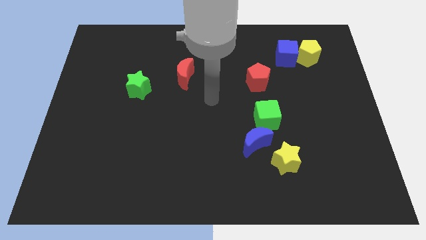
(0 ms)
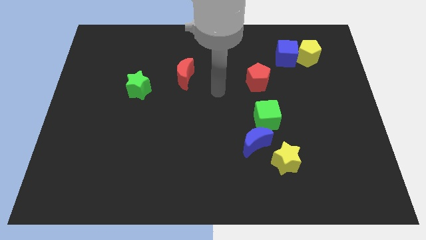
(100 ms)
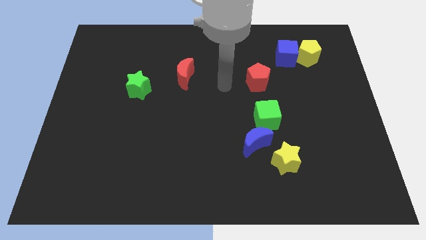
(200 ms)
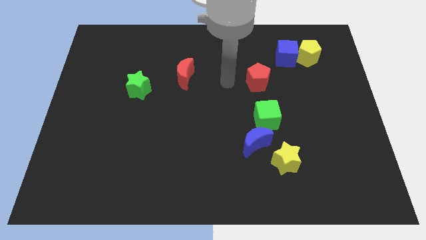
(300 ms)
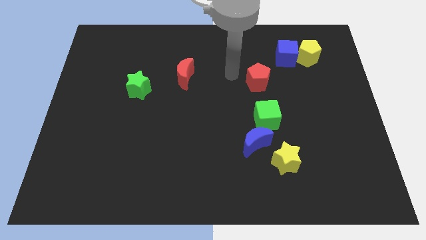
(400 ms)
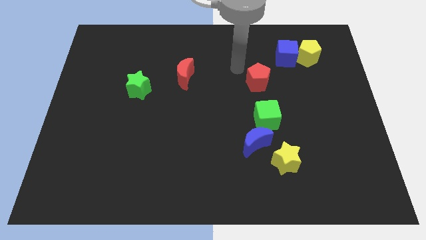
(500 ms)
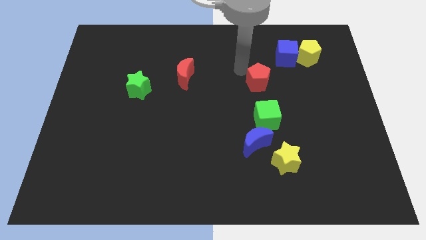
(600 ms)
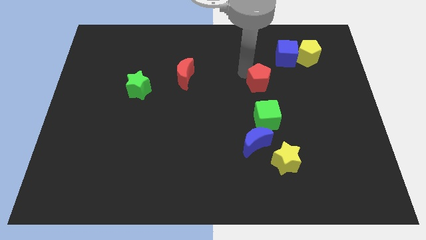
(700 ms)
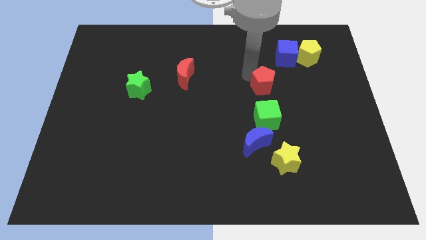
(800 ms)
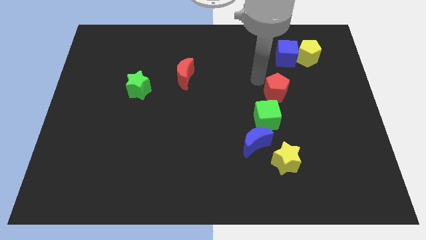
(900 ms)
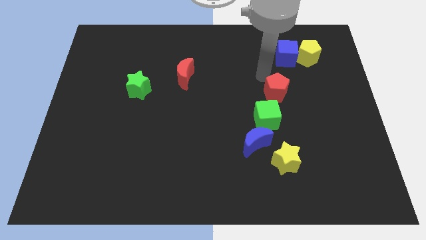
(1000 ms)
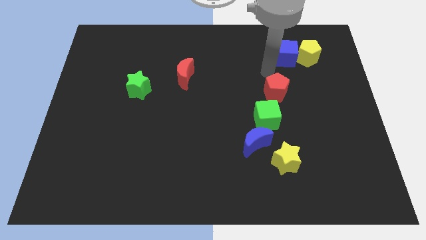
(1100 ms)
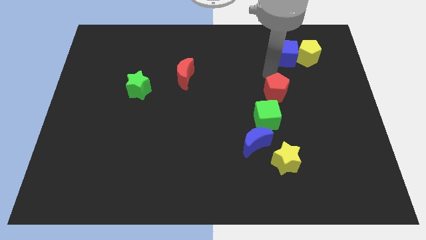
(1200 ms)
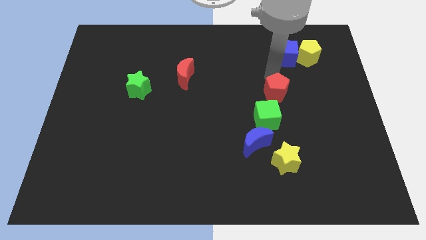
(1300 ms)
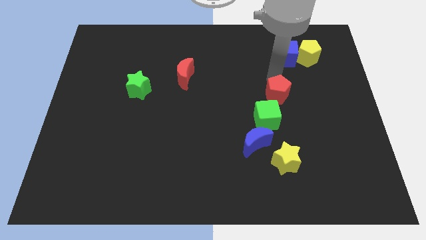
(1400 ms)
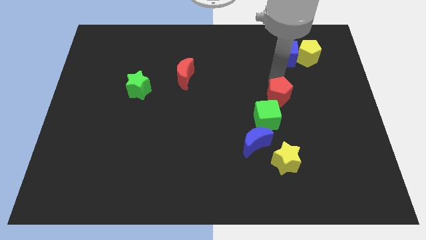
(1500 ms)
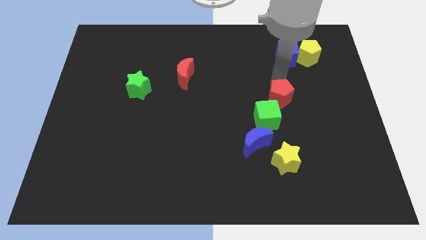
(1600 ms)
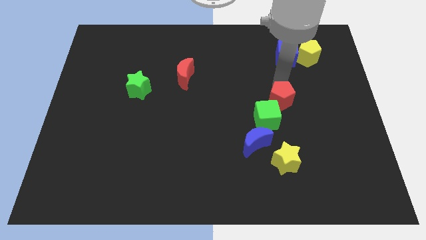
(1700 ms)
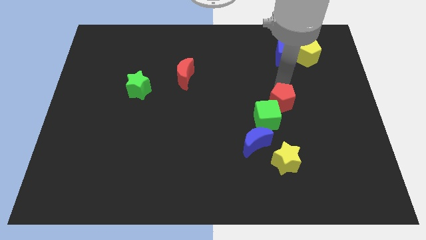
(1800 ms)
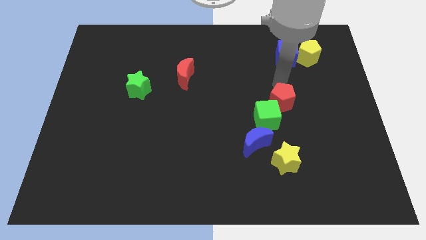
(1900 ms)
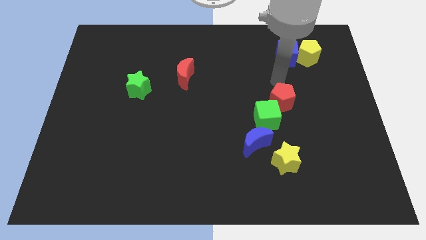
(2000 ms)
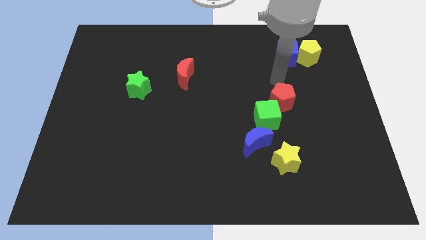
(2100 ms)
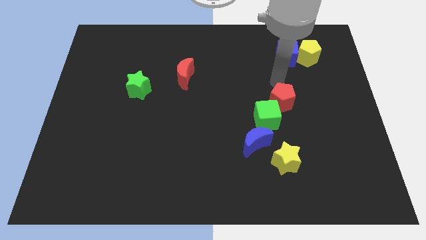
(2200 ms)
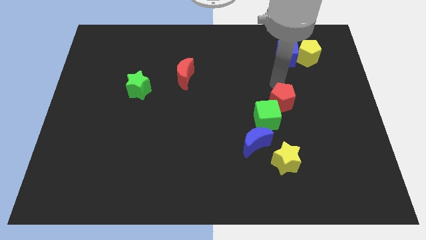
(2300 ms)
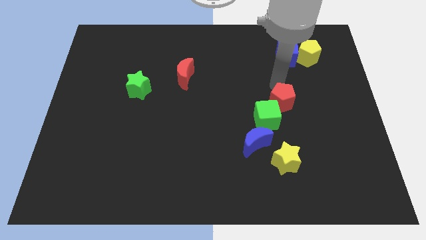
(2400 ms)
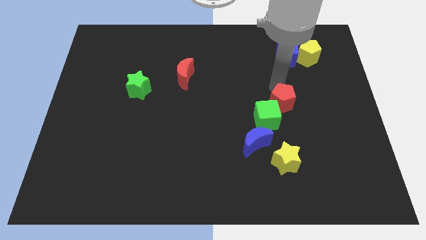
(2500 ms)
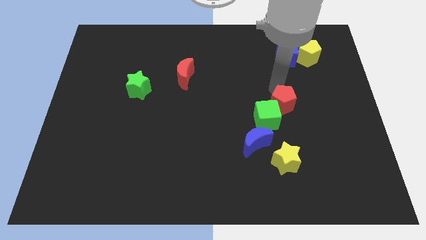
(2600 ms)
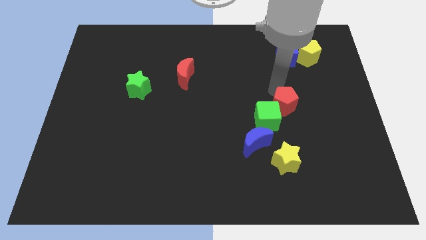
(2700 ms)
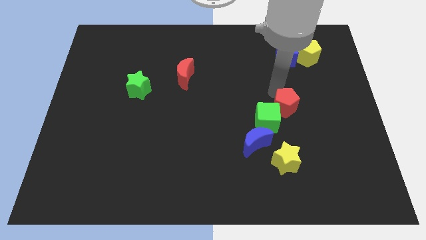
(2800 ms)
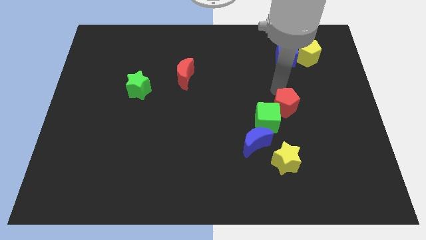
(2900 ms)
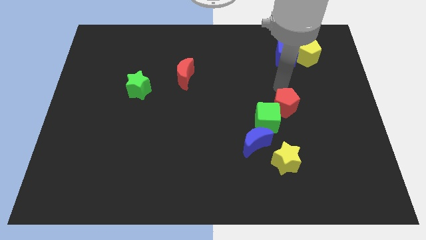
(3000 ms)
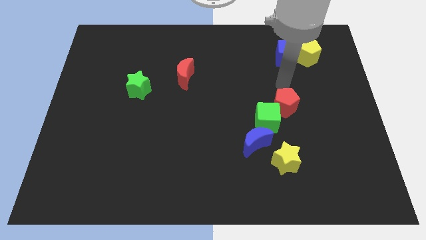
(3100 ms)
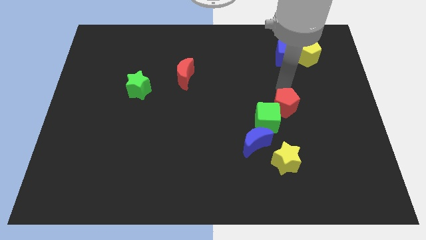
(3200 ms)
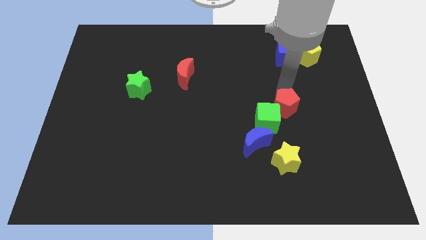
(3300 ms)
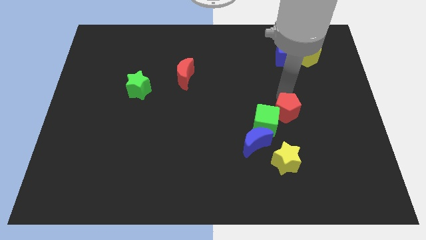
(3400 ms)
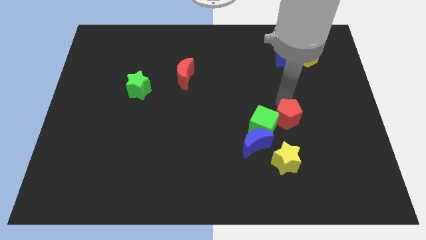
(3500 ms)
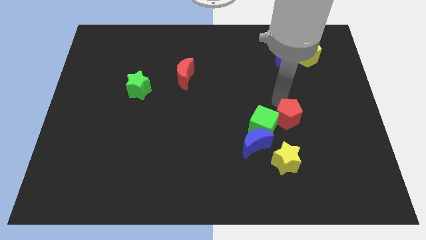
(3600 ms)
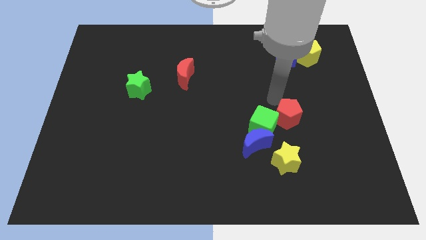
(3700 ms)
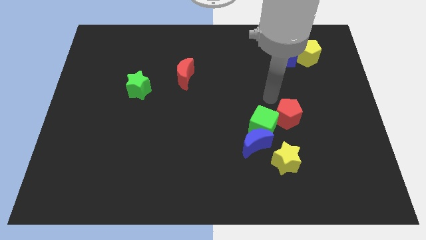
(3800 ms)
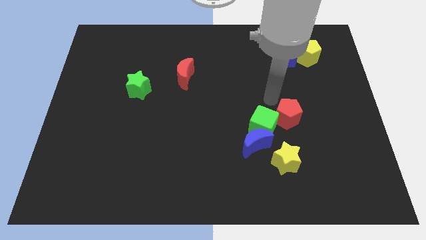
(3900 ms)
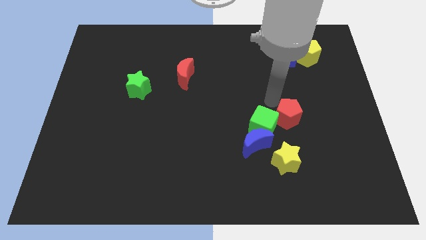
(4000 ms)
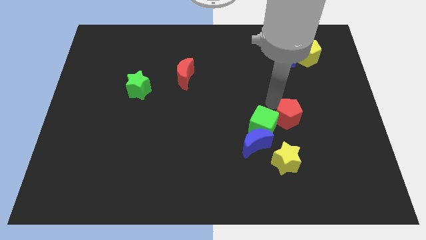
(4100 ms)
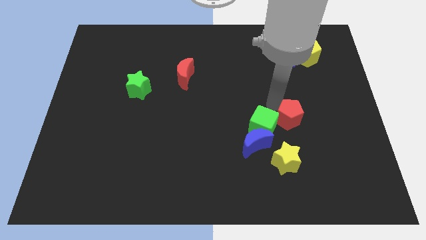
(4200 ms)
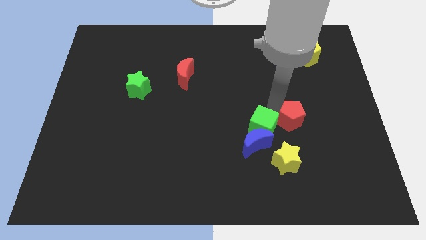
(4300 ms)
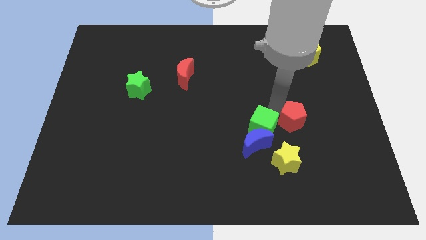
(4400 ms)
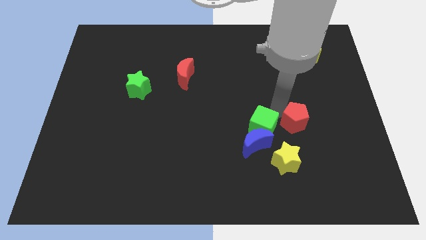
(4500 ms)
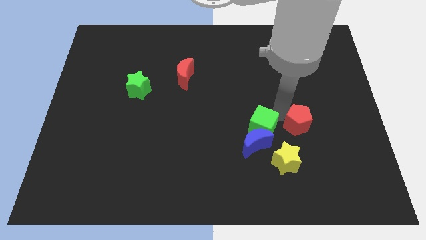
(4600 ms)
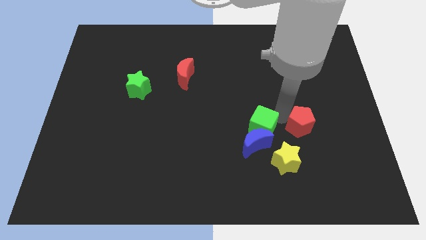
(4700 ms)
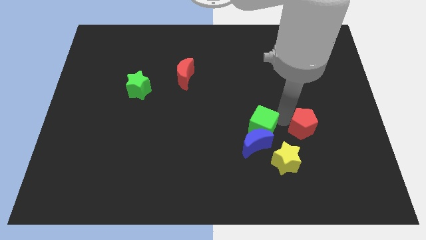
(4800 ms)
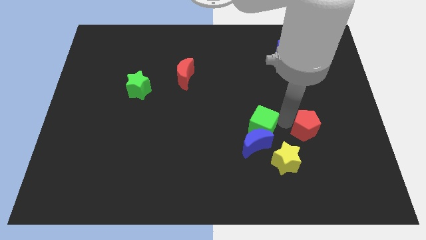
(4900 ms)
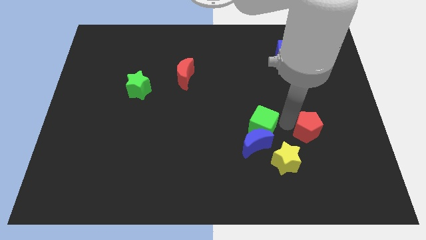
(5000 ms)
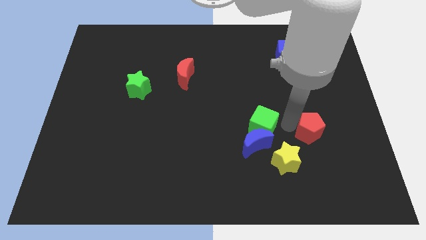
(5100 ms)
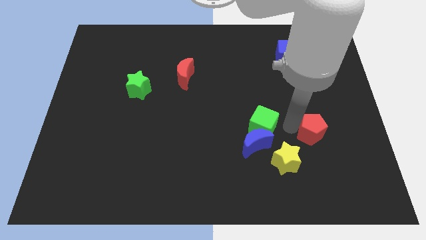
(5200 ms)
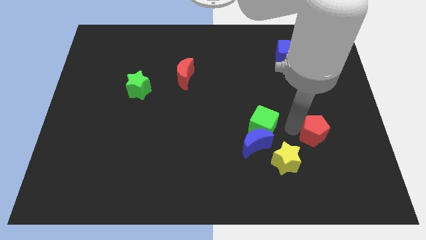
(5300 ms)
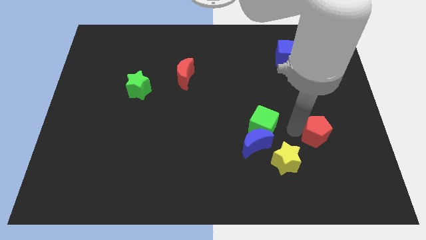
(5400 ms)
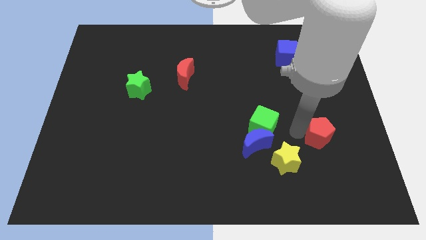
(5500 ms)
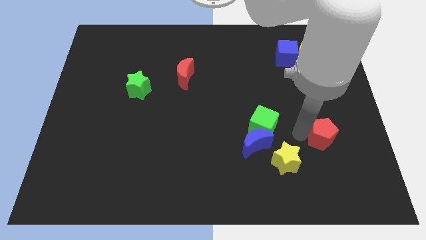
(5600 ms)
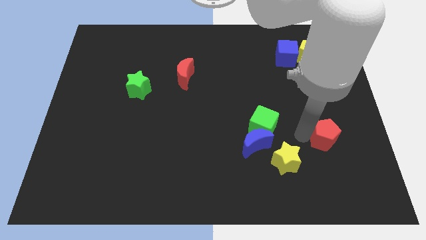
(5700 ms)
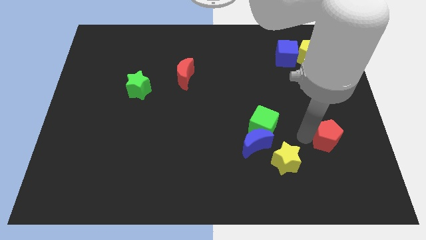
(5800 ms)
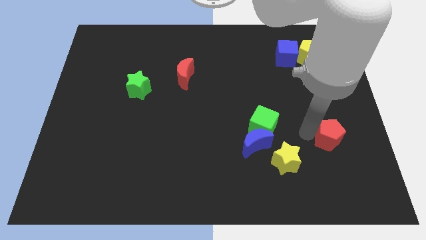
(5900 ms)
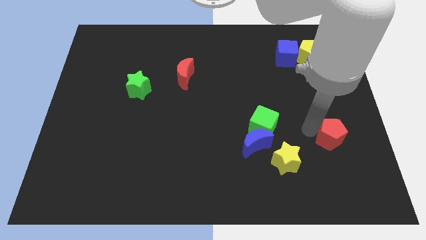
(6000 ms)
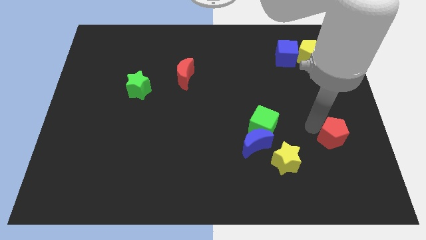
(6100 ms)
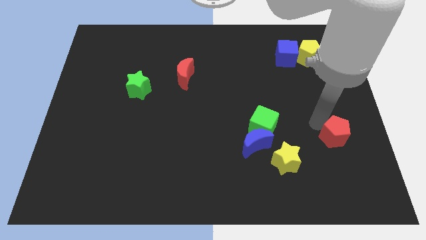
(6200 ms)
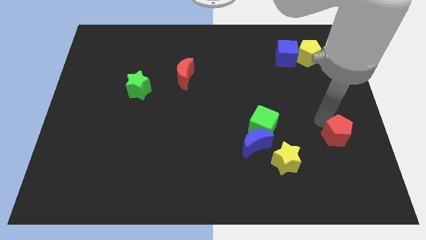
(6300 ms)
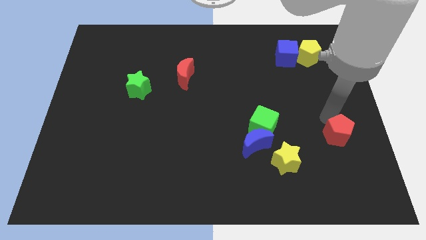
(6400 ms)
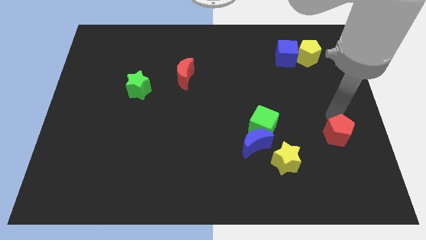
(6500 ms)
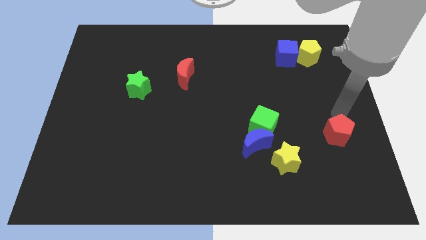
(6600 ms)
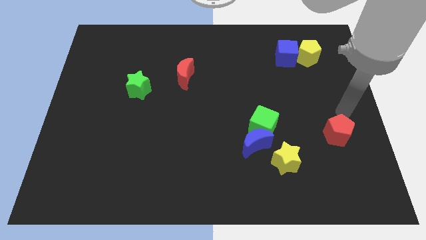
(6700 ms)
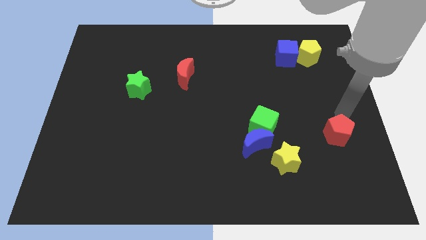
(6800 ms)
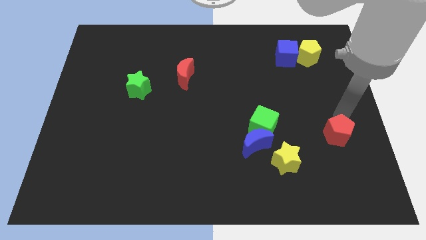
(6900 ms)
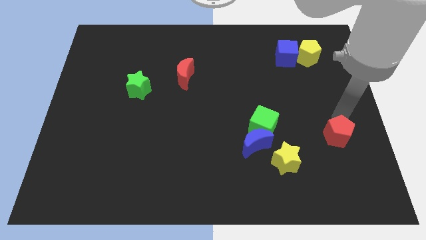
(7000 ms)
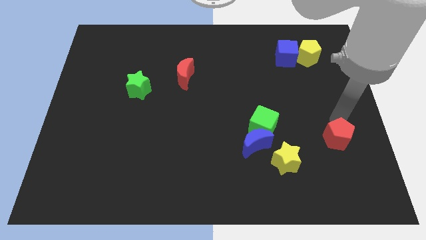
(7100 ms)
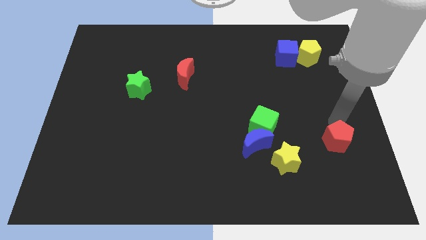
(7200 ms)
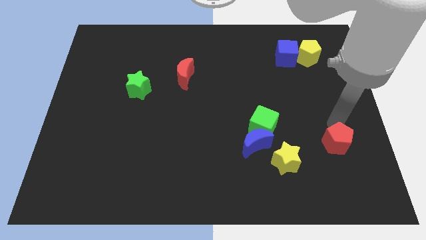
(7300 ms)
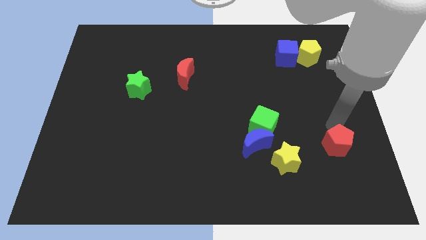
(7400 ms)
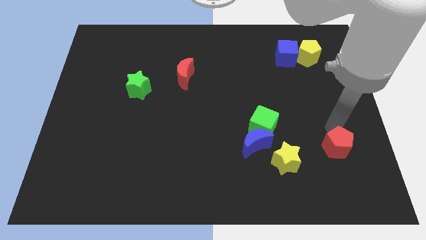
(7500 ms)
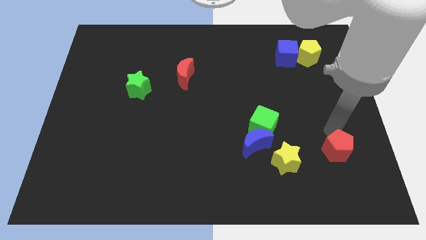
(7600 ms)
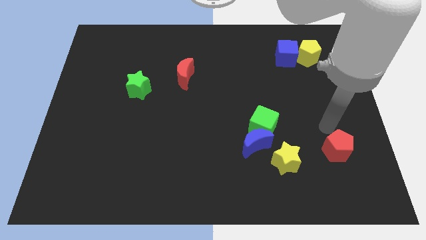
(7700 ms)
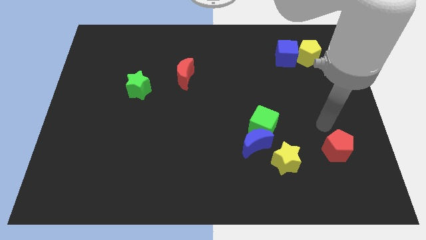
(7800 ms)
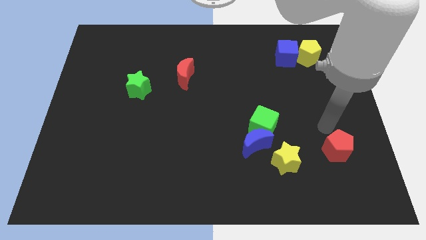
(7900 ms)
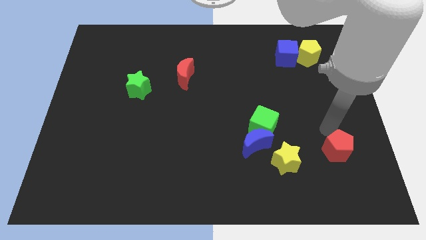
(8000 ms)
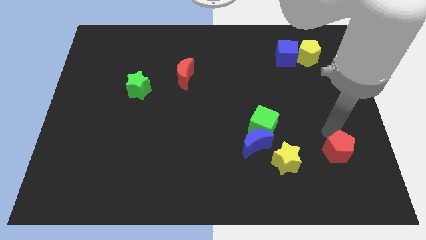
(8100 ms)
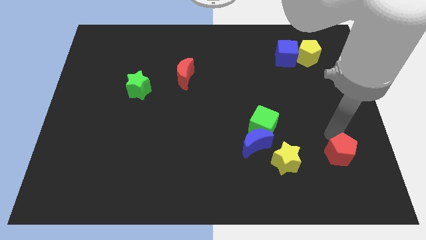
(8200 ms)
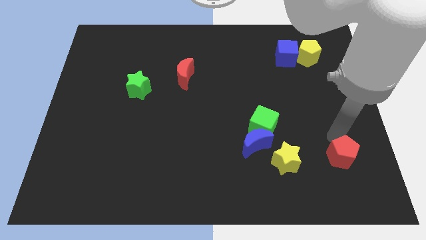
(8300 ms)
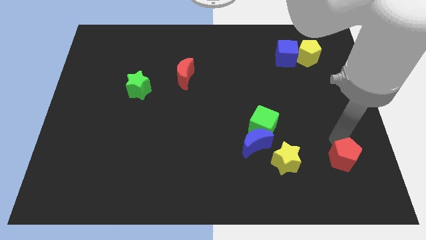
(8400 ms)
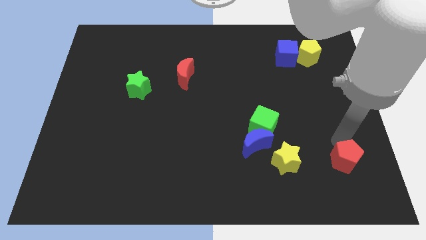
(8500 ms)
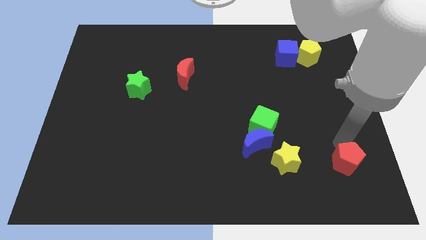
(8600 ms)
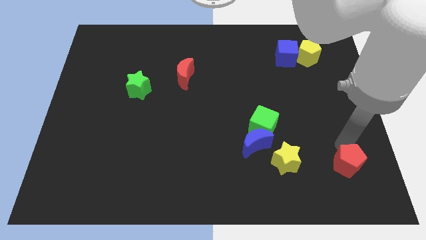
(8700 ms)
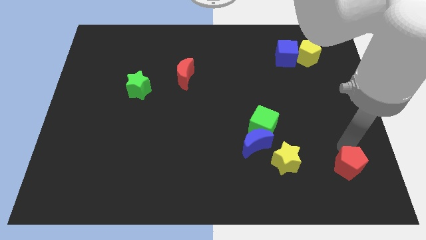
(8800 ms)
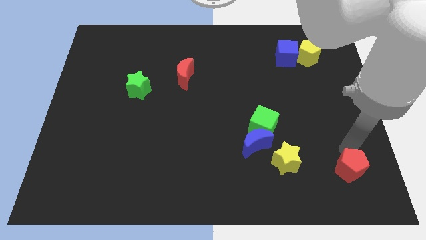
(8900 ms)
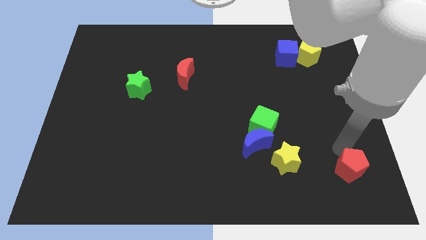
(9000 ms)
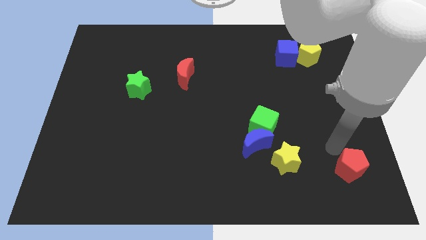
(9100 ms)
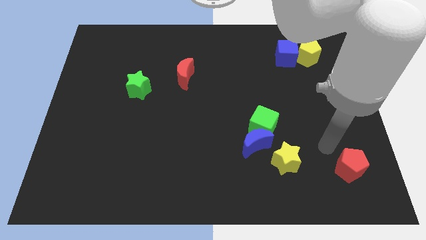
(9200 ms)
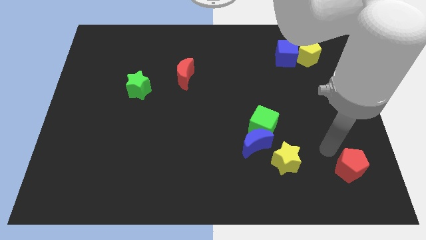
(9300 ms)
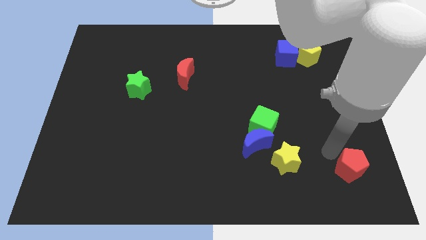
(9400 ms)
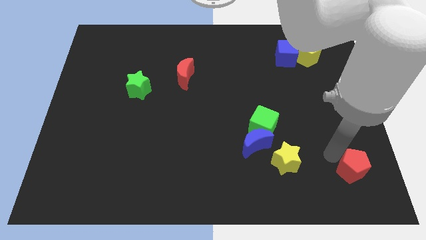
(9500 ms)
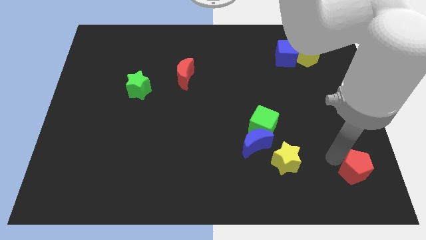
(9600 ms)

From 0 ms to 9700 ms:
put the red pentagon to the bottom right of the board
